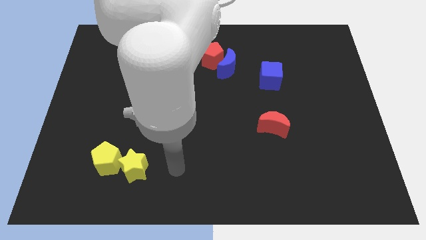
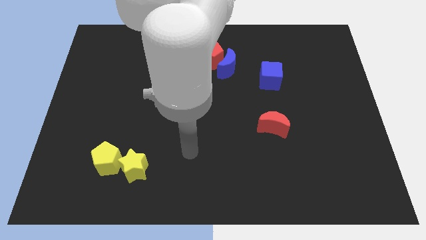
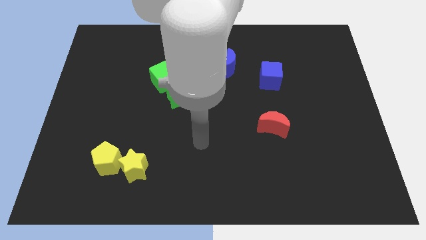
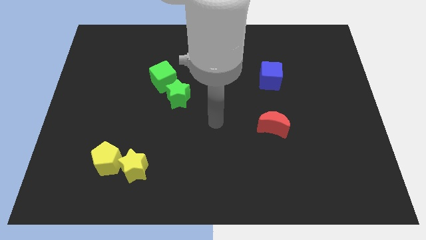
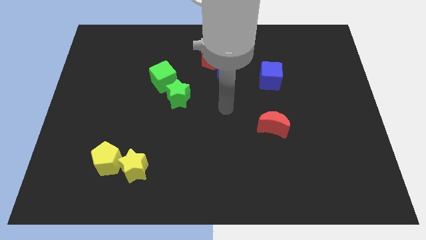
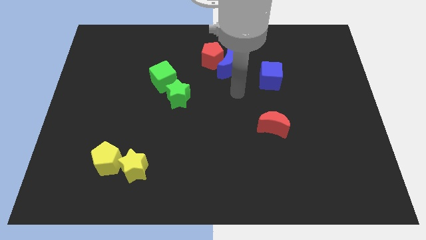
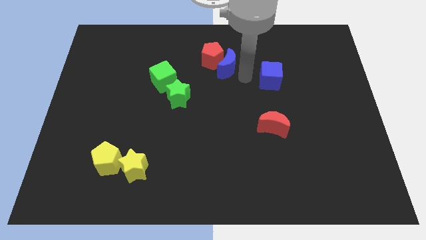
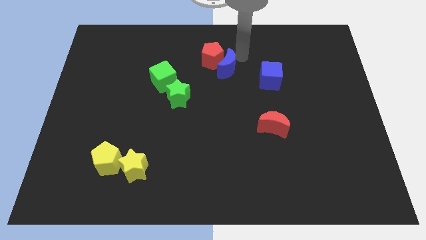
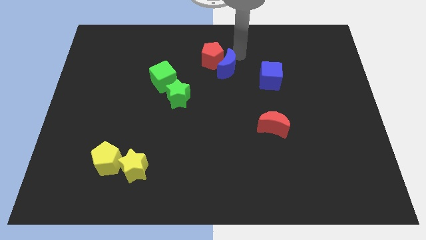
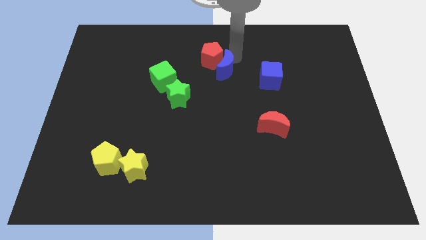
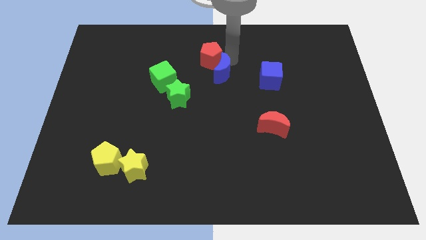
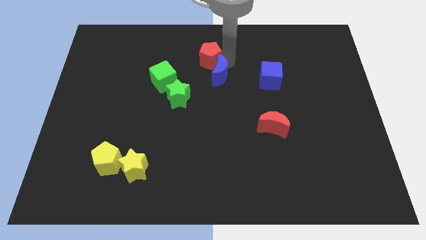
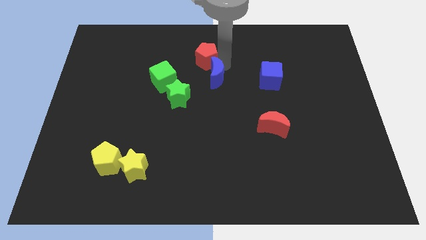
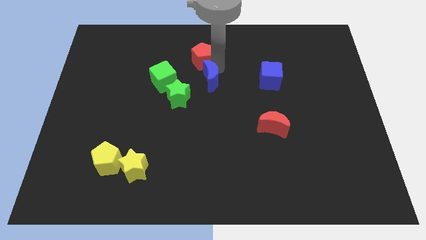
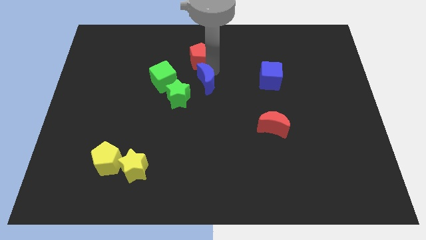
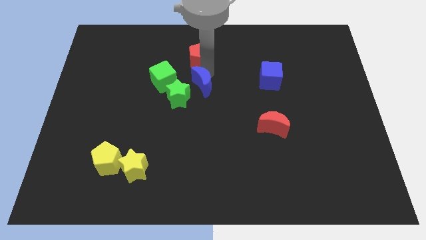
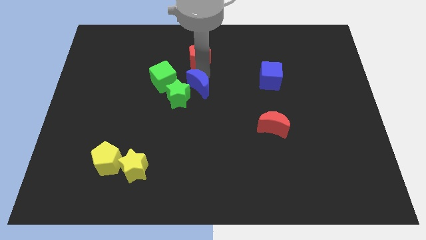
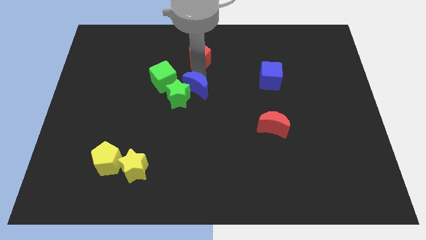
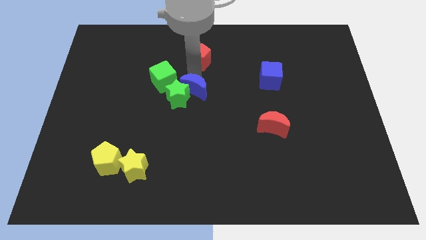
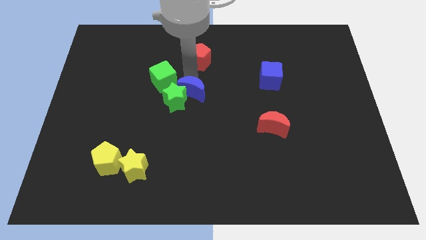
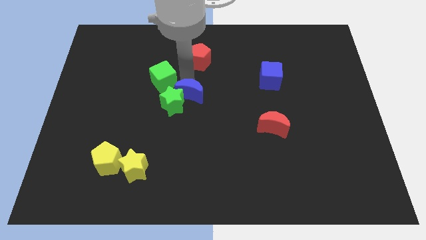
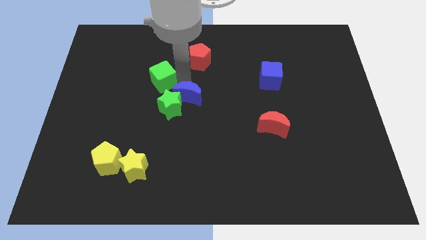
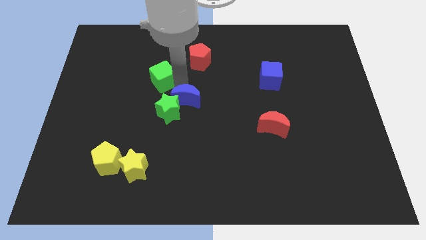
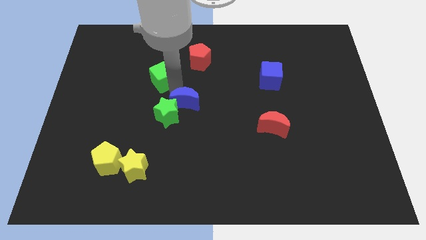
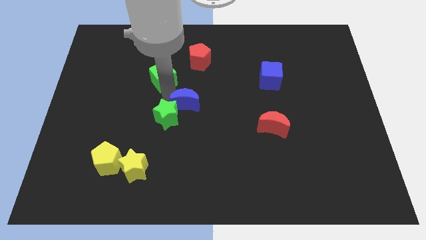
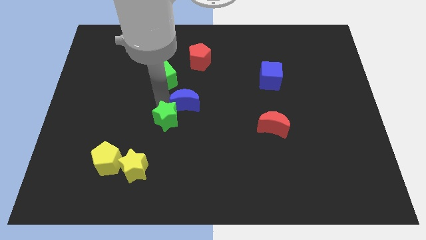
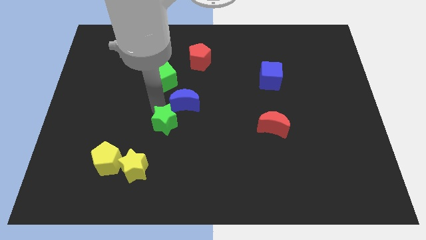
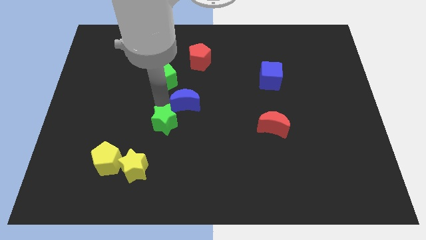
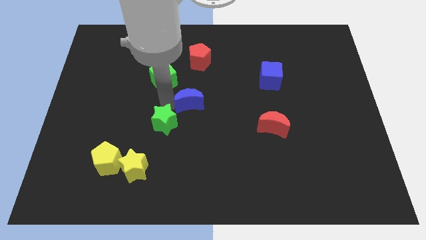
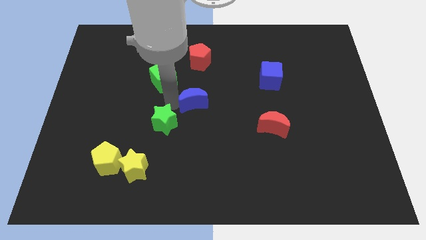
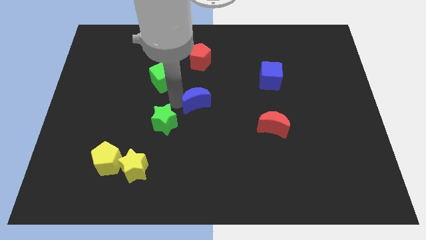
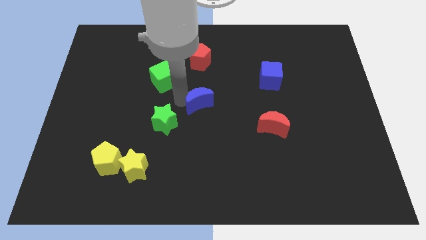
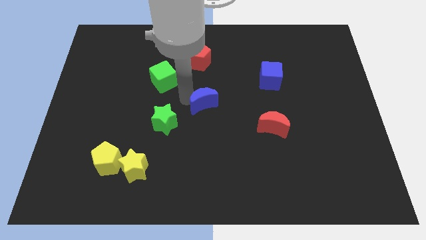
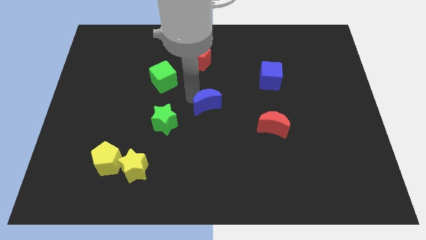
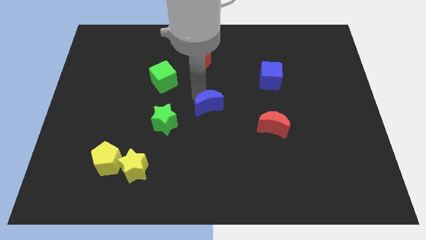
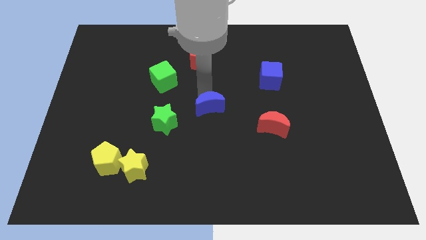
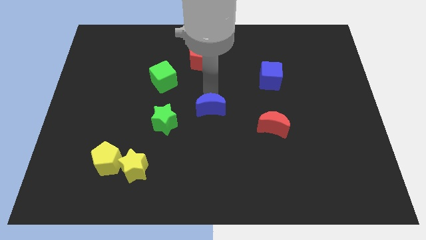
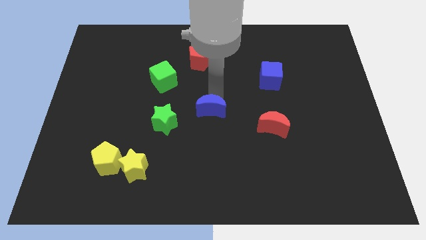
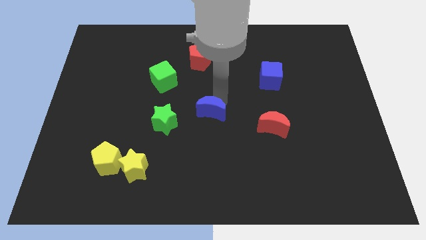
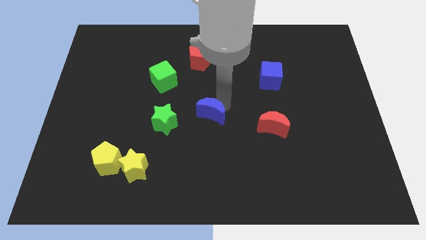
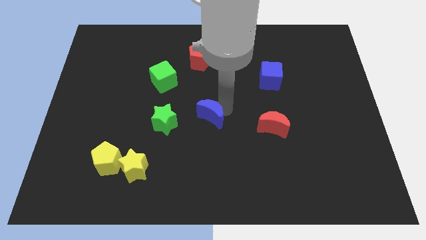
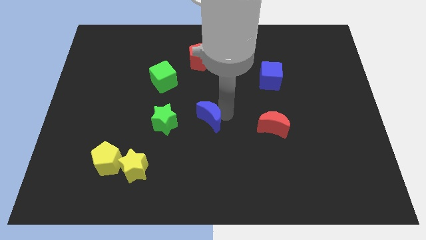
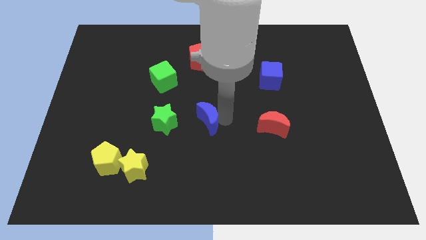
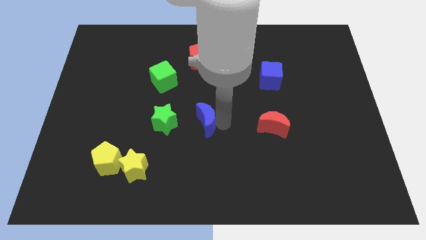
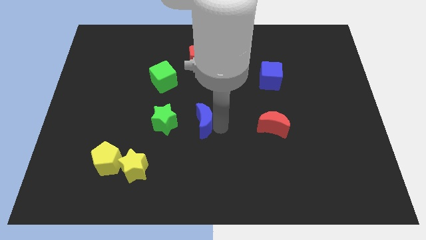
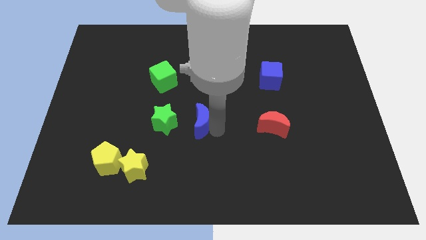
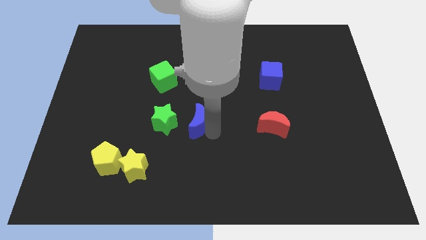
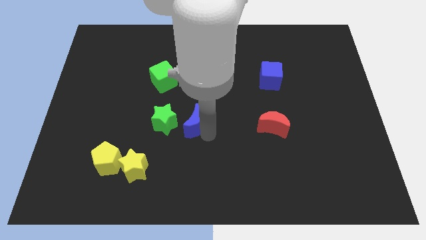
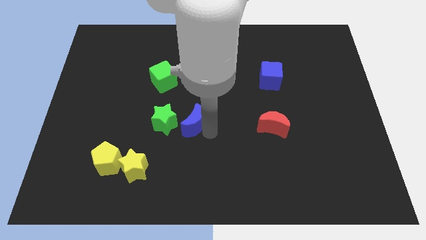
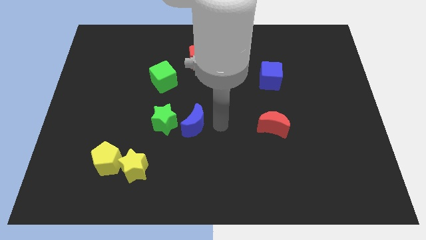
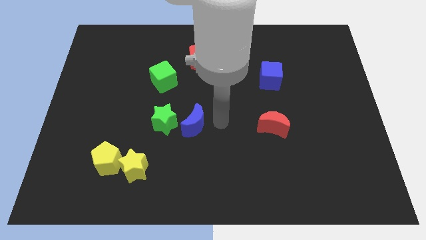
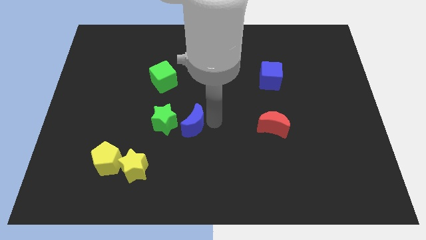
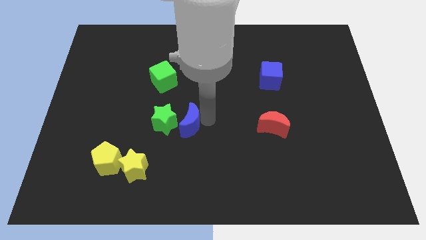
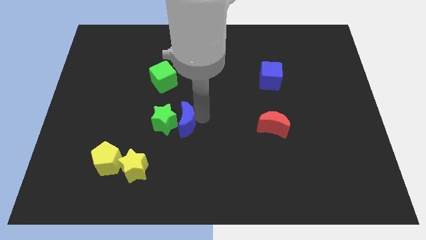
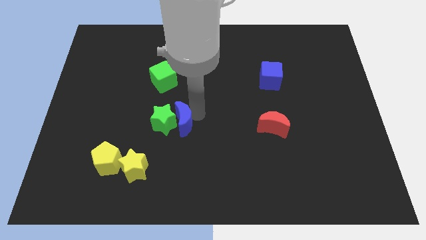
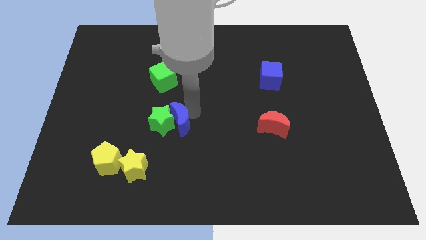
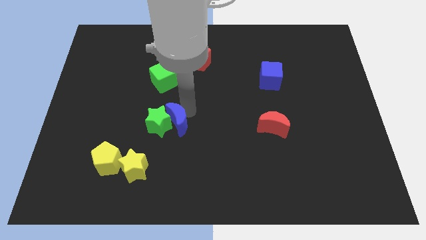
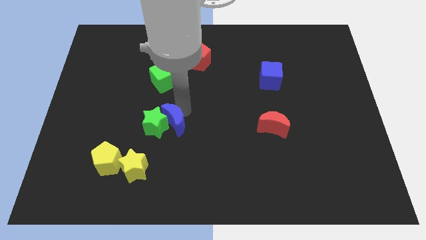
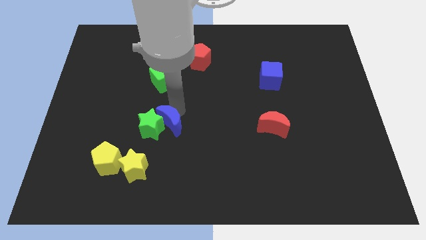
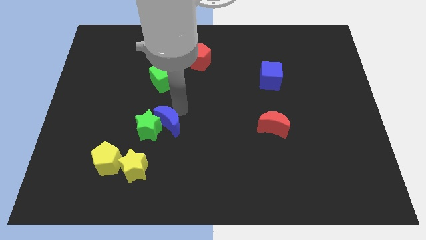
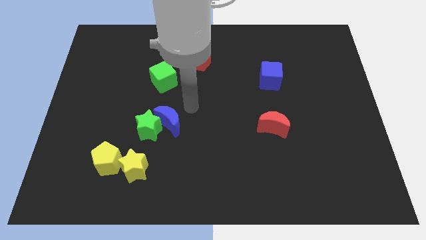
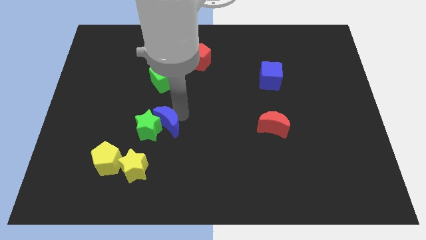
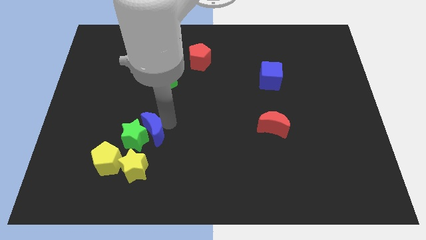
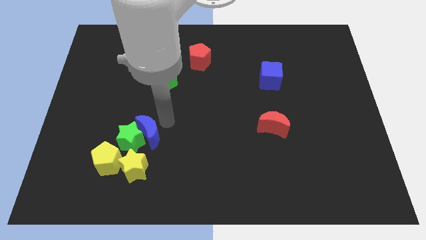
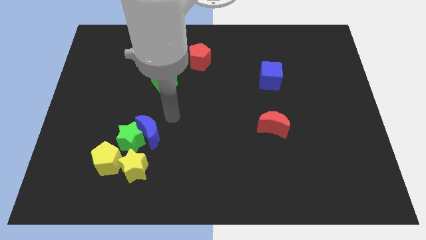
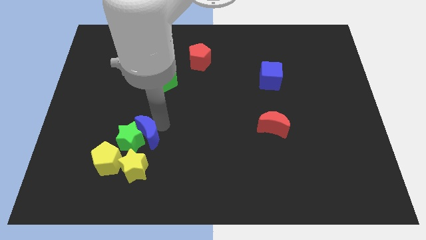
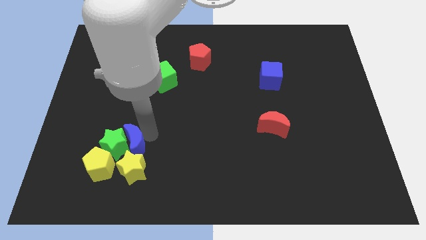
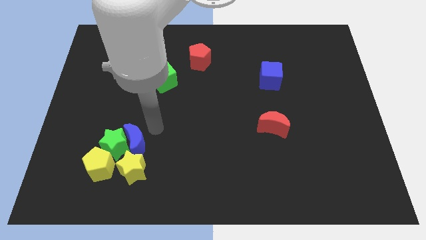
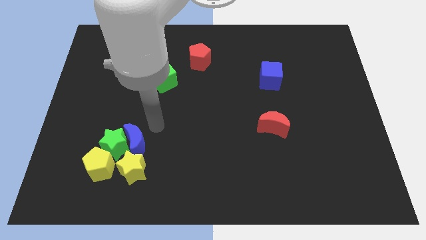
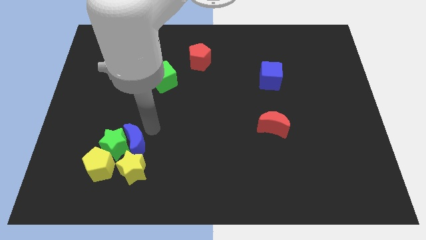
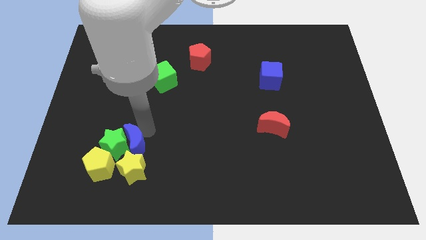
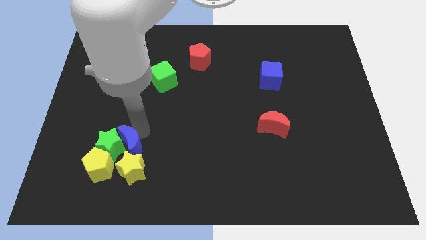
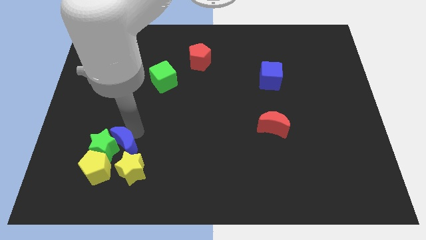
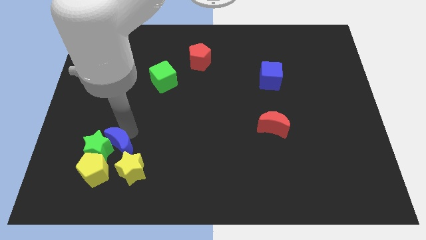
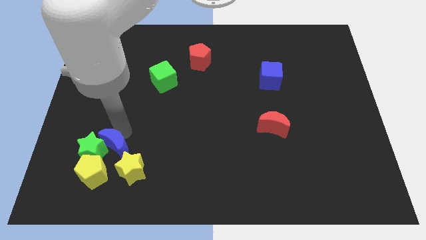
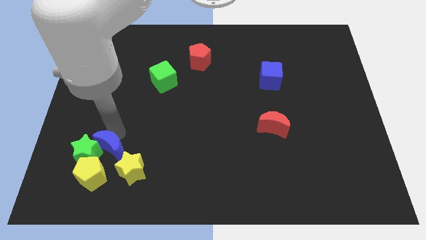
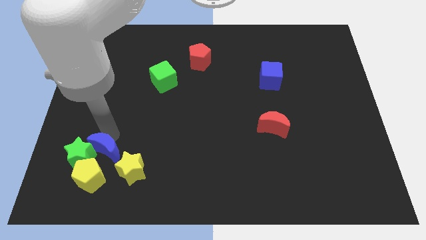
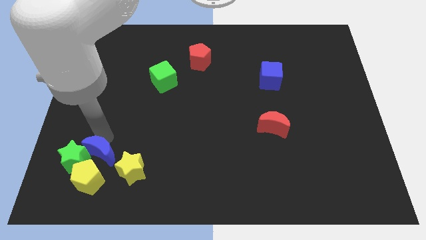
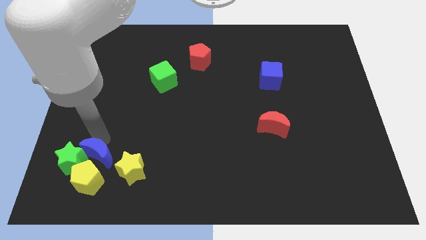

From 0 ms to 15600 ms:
move the blue moon next to the yellow pentagon
